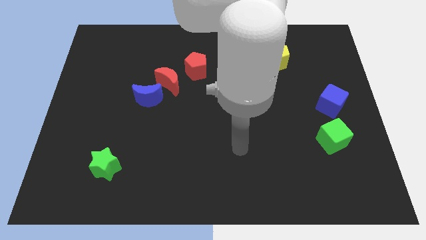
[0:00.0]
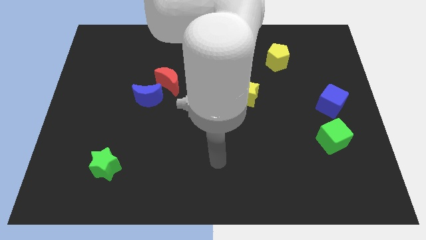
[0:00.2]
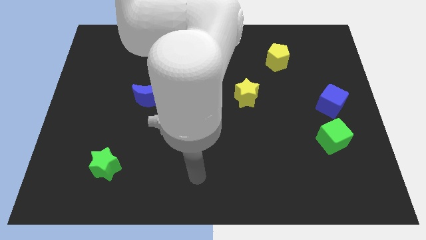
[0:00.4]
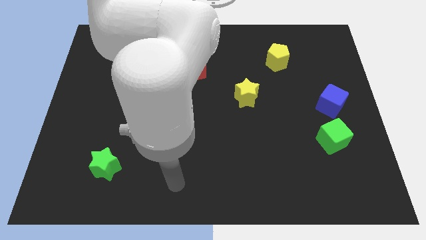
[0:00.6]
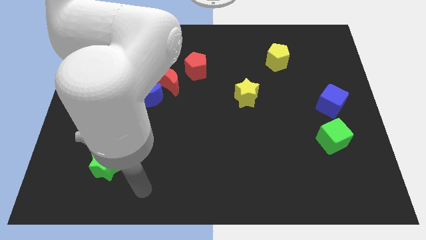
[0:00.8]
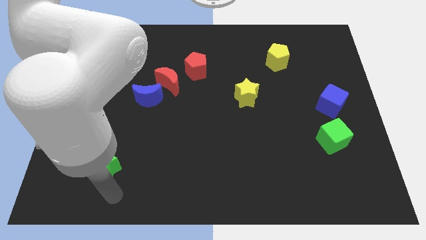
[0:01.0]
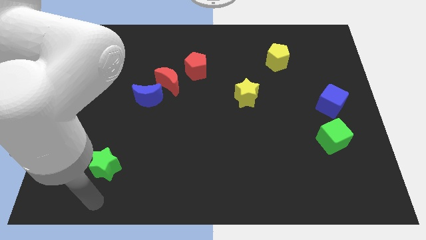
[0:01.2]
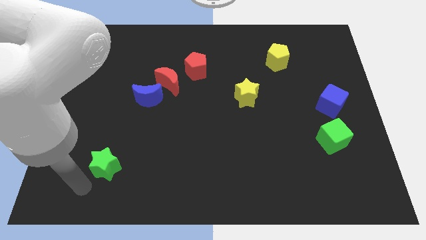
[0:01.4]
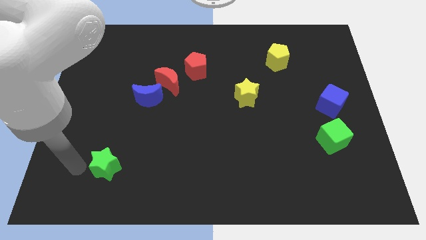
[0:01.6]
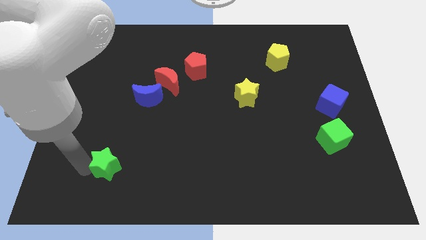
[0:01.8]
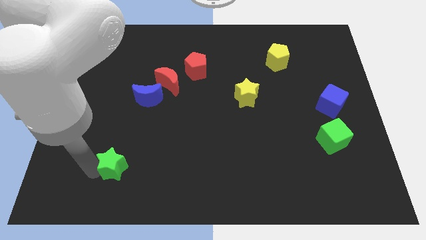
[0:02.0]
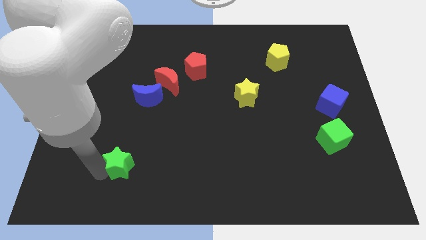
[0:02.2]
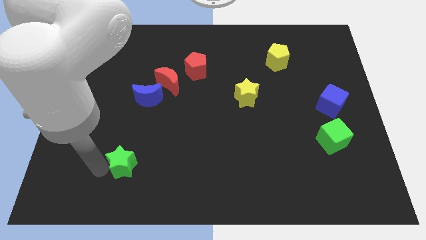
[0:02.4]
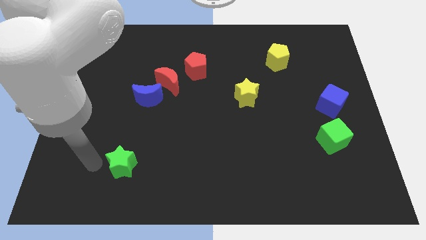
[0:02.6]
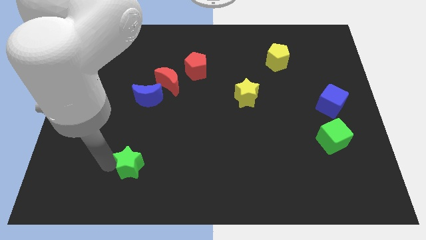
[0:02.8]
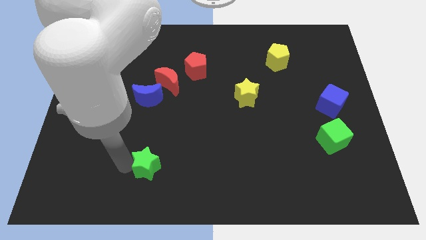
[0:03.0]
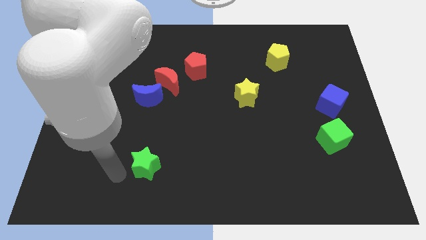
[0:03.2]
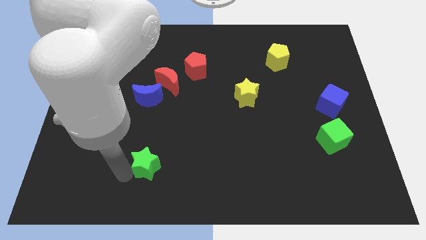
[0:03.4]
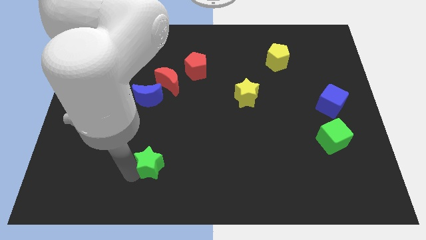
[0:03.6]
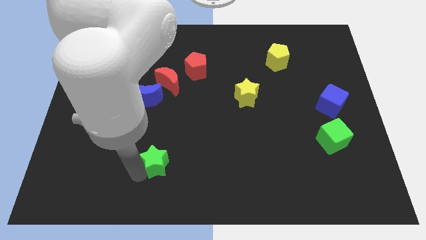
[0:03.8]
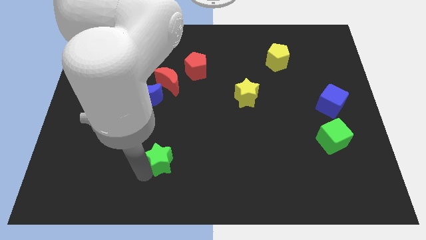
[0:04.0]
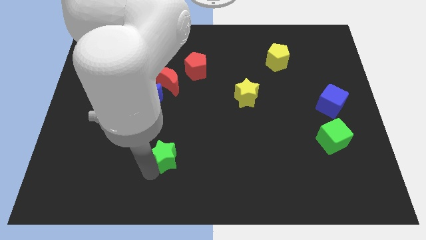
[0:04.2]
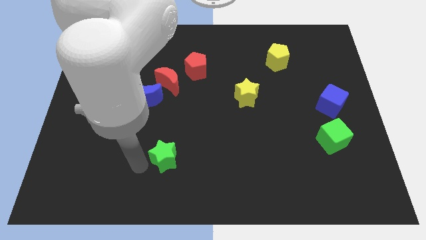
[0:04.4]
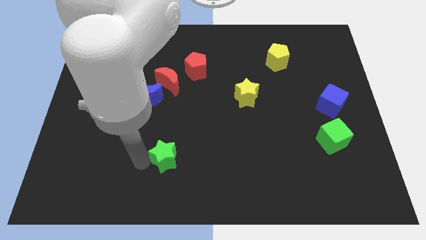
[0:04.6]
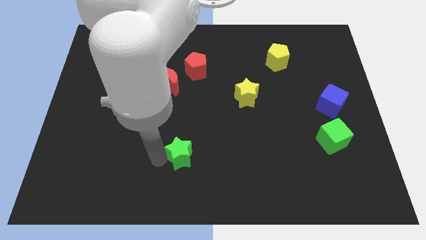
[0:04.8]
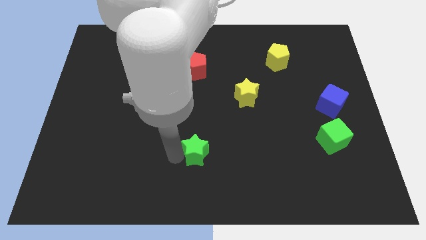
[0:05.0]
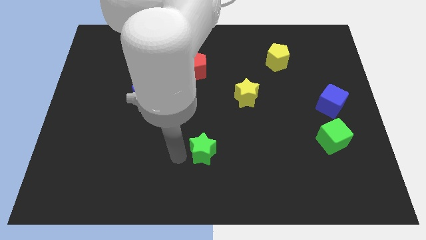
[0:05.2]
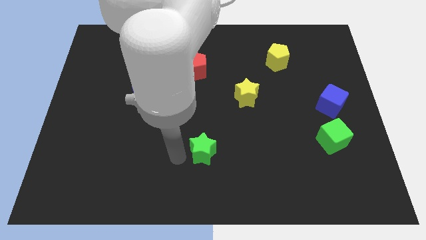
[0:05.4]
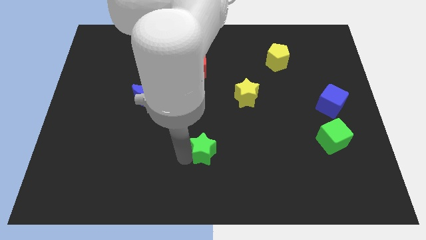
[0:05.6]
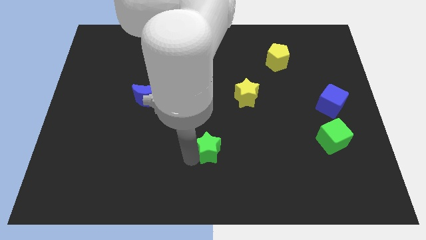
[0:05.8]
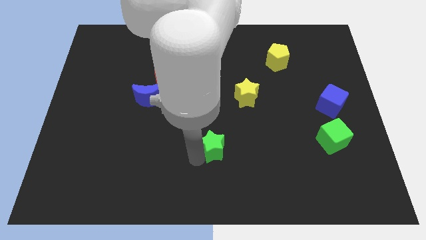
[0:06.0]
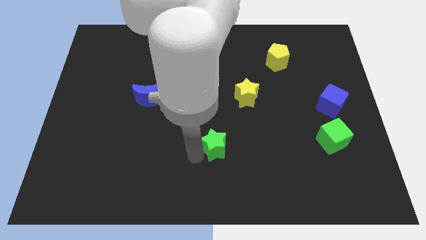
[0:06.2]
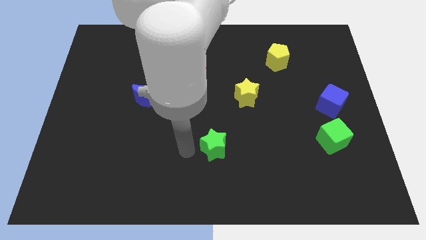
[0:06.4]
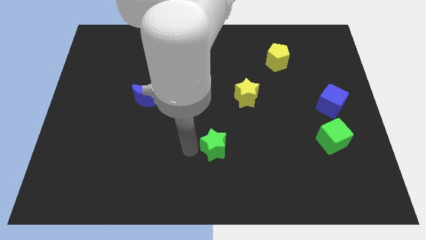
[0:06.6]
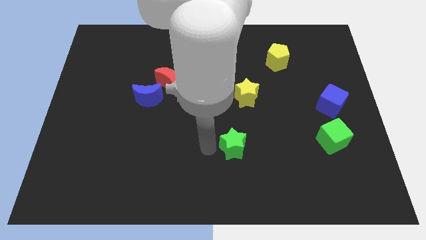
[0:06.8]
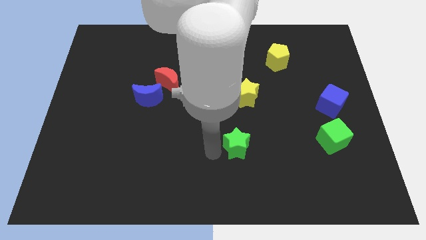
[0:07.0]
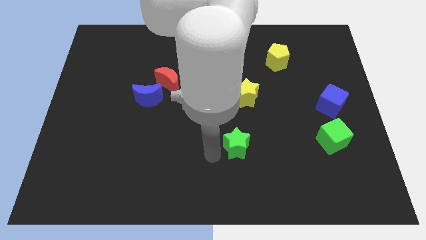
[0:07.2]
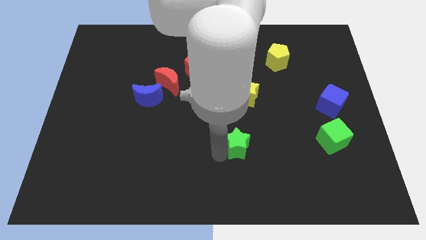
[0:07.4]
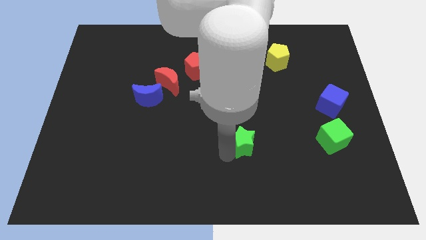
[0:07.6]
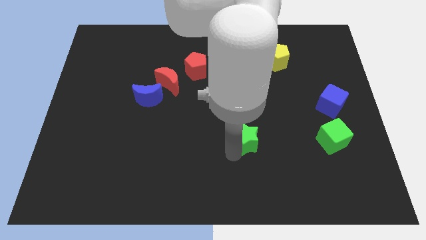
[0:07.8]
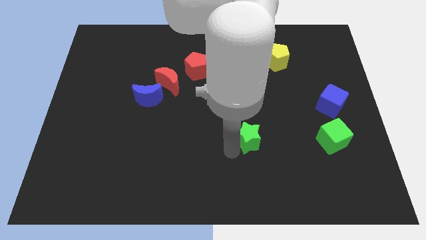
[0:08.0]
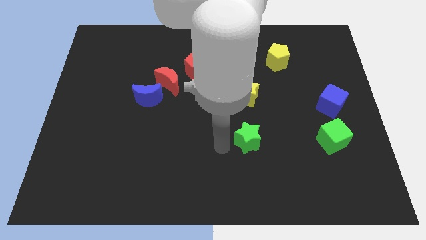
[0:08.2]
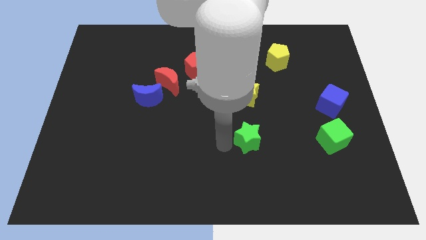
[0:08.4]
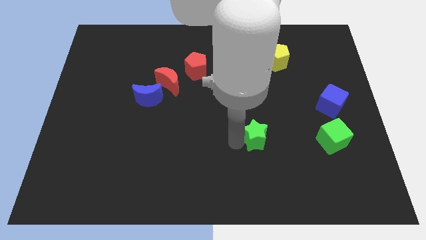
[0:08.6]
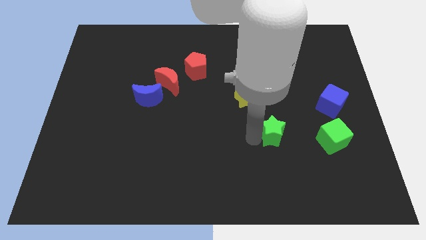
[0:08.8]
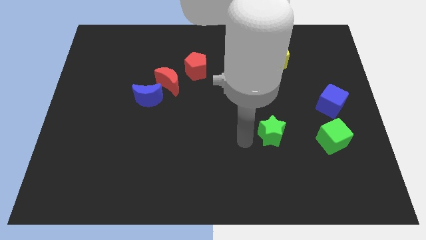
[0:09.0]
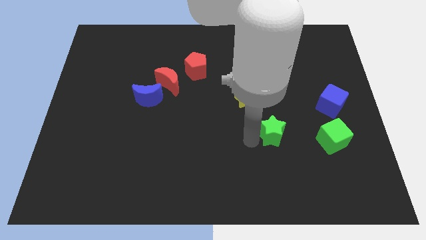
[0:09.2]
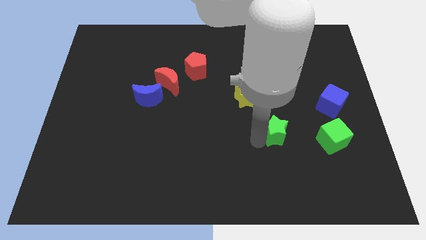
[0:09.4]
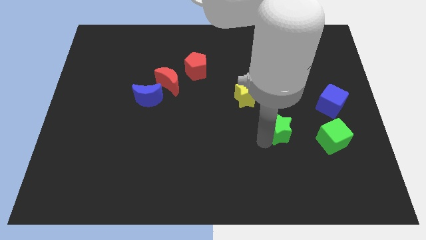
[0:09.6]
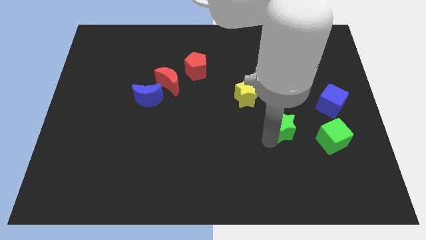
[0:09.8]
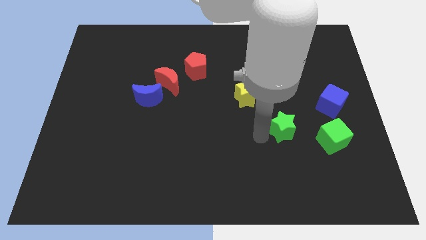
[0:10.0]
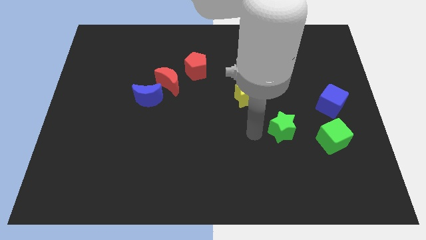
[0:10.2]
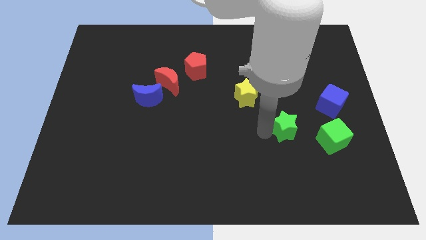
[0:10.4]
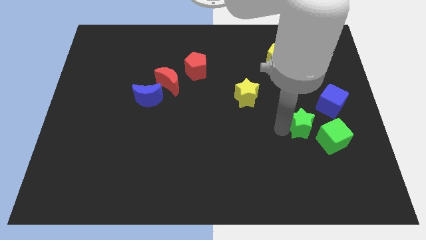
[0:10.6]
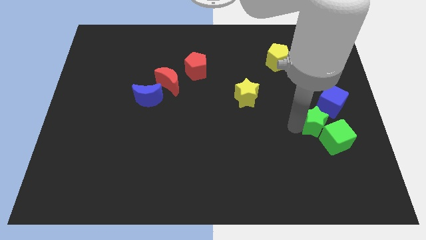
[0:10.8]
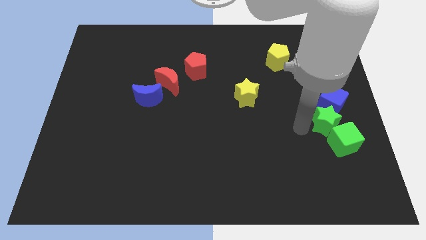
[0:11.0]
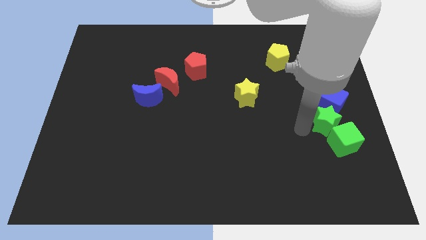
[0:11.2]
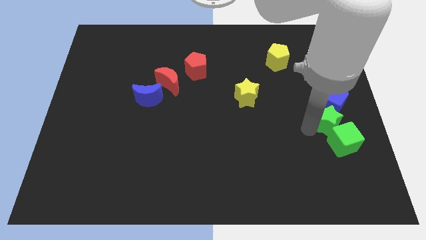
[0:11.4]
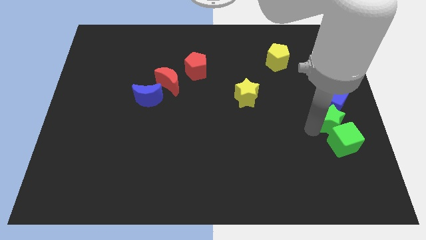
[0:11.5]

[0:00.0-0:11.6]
move the green star to the right side of the board

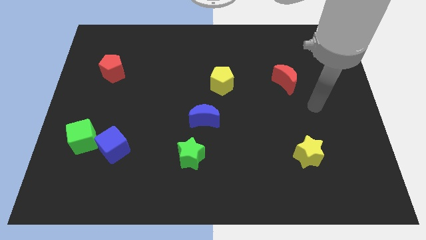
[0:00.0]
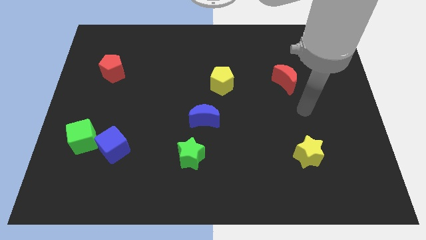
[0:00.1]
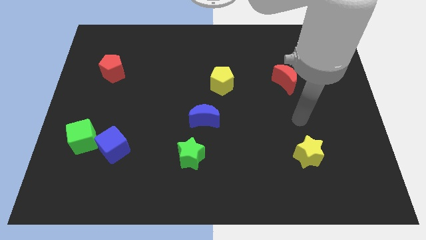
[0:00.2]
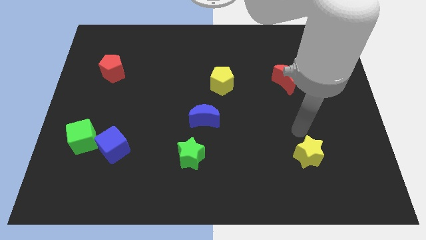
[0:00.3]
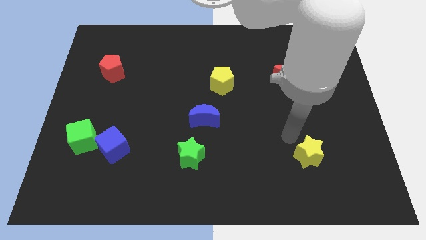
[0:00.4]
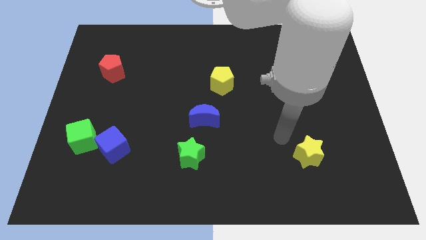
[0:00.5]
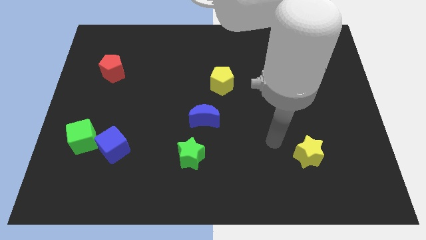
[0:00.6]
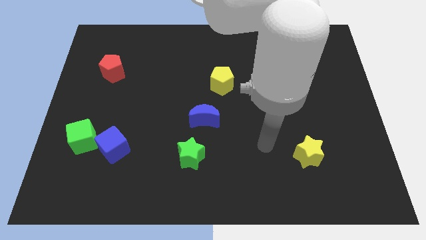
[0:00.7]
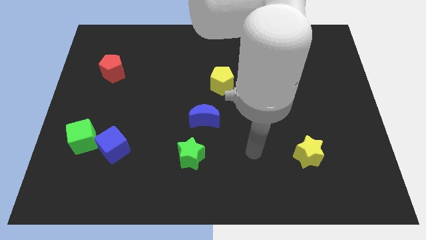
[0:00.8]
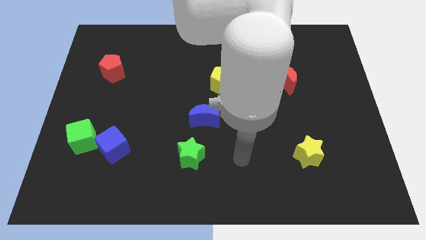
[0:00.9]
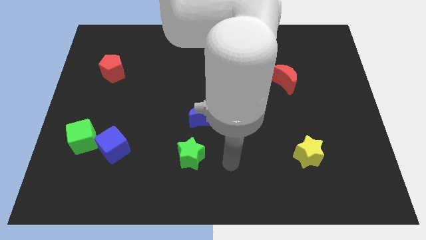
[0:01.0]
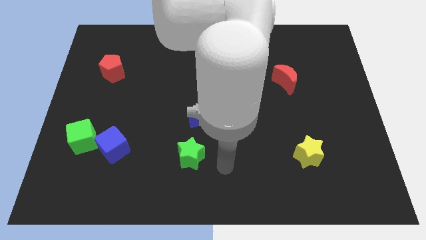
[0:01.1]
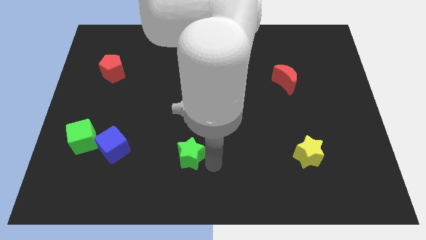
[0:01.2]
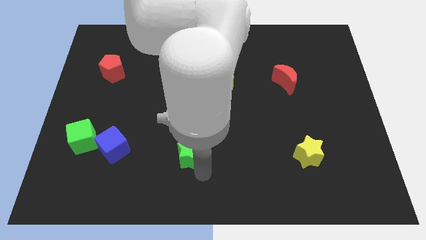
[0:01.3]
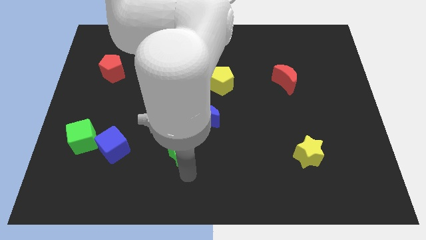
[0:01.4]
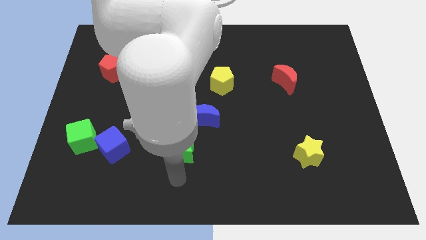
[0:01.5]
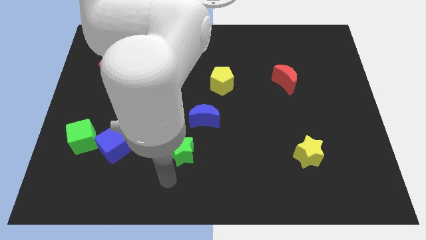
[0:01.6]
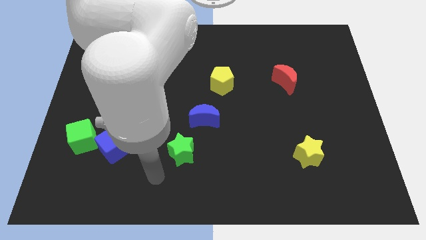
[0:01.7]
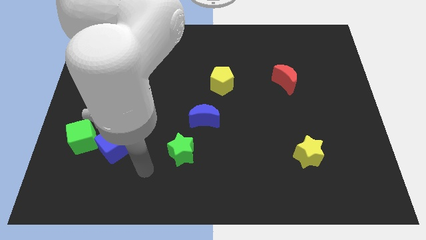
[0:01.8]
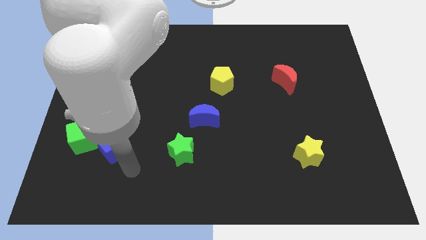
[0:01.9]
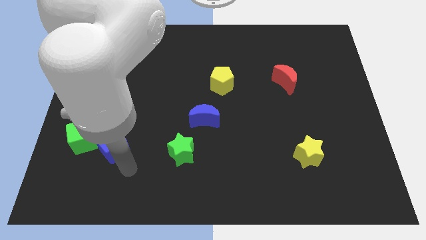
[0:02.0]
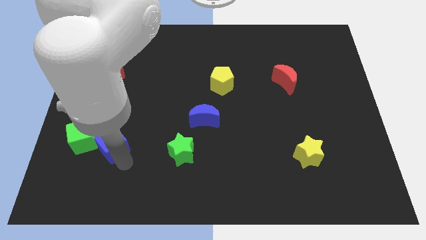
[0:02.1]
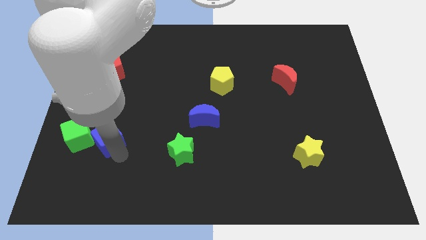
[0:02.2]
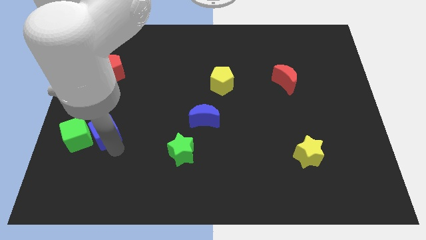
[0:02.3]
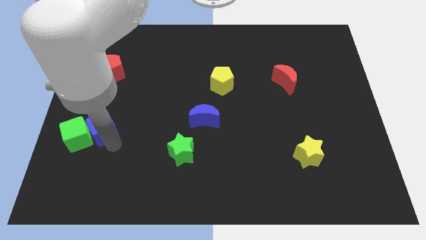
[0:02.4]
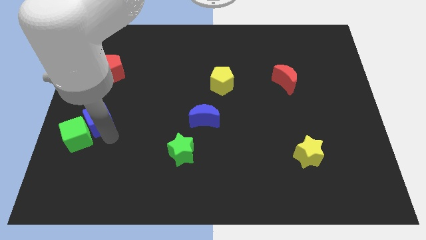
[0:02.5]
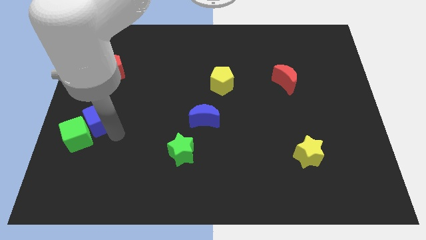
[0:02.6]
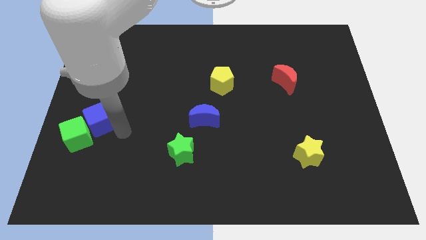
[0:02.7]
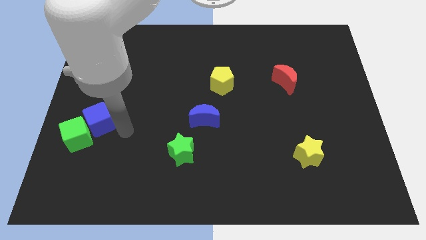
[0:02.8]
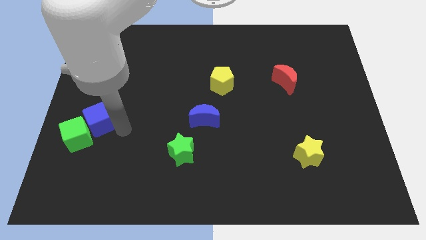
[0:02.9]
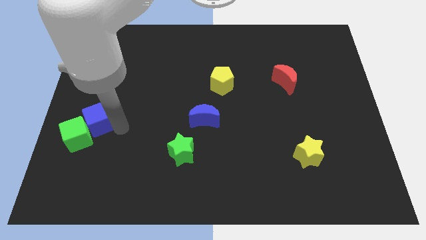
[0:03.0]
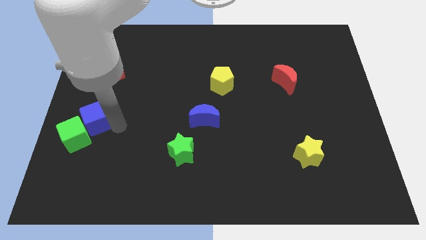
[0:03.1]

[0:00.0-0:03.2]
move the blue cube to the left side of the board
